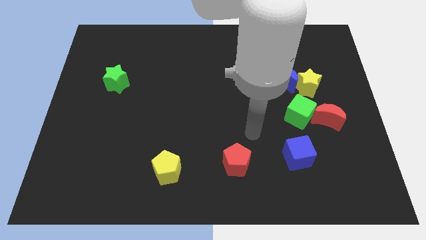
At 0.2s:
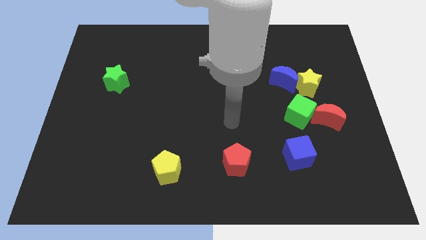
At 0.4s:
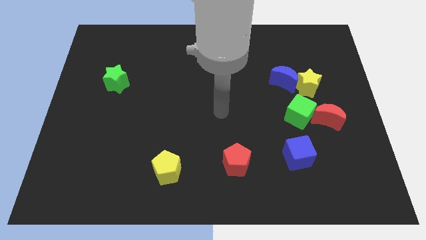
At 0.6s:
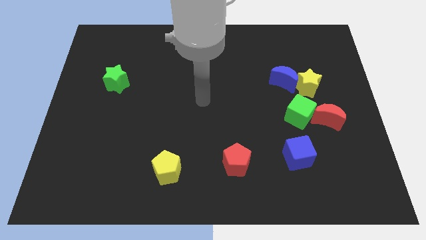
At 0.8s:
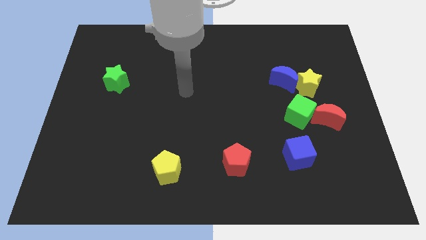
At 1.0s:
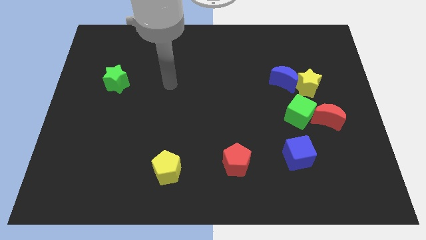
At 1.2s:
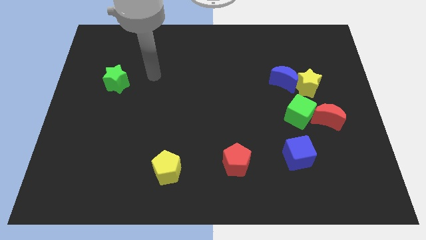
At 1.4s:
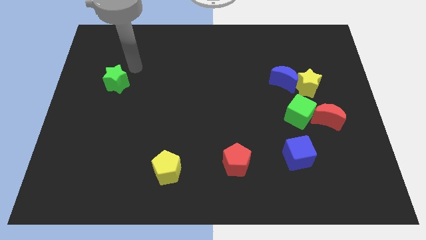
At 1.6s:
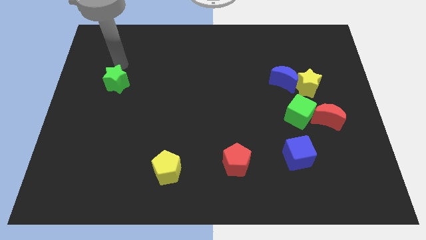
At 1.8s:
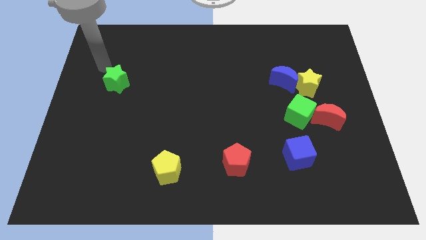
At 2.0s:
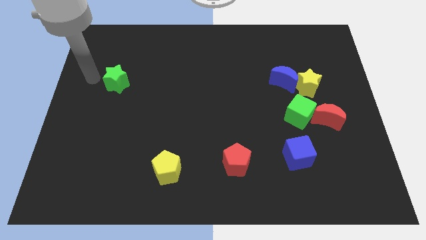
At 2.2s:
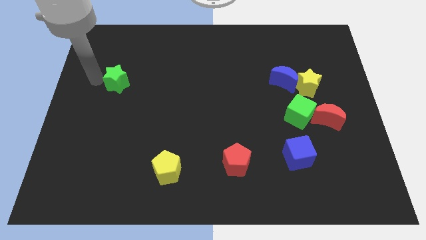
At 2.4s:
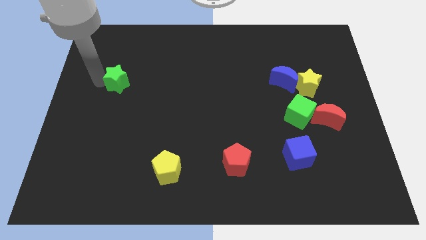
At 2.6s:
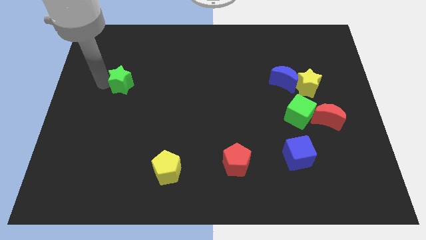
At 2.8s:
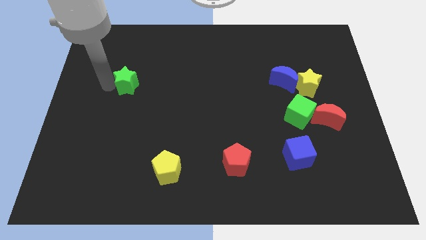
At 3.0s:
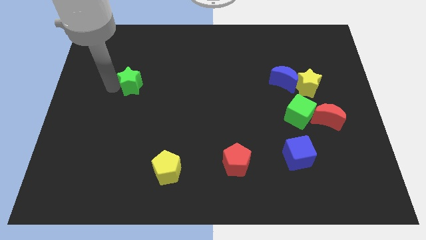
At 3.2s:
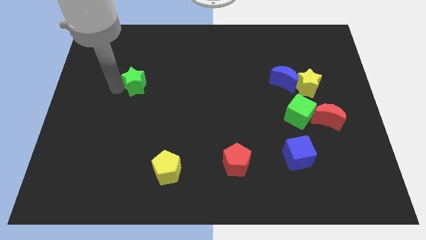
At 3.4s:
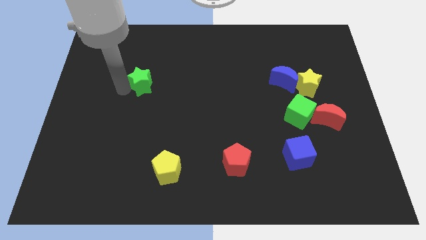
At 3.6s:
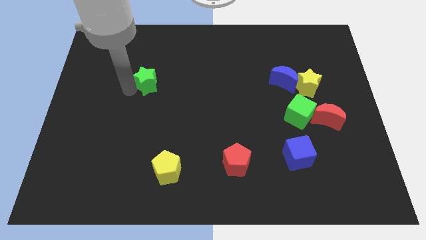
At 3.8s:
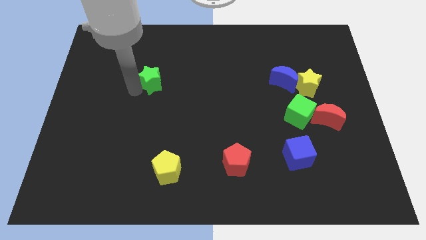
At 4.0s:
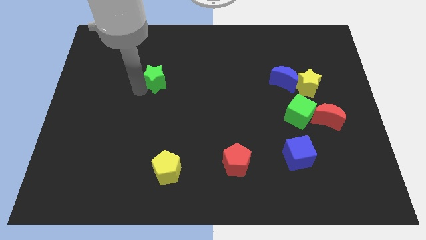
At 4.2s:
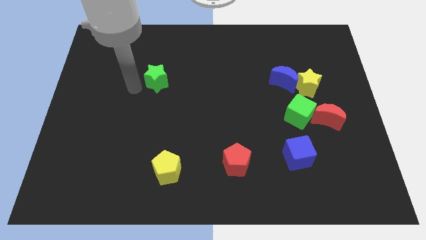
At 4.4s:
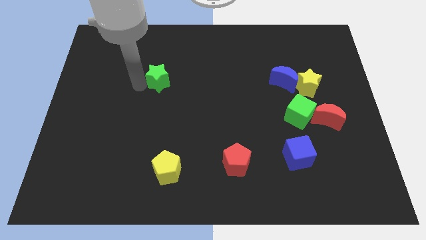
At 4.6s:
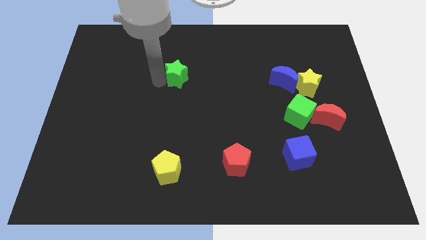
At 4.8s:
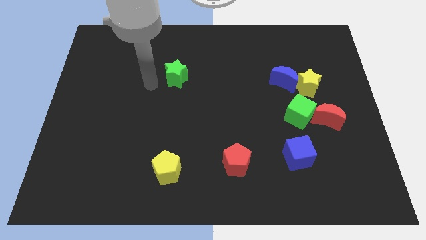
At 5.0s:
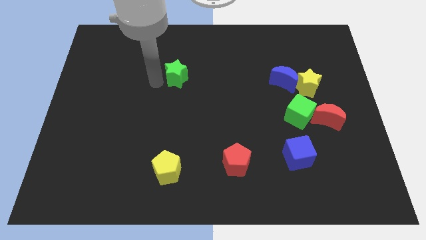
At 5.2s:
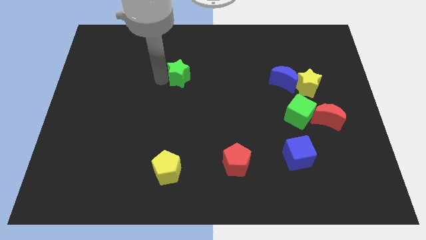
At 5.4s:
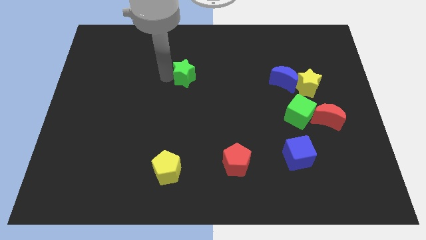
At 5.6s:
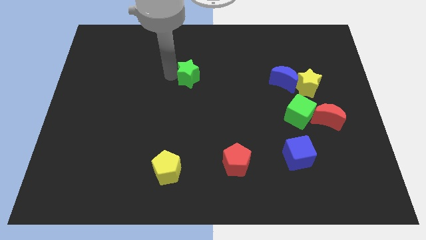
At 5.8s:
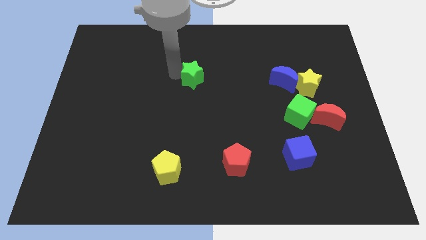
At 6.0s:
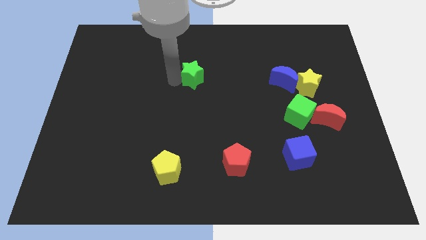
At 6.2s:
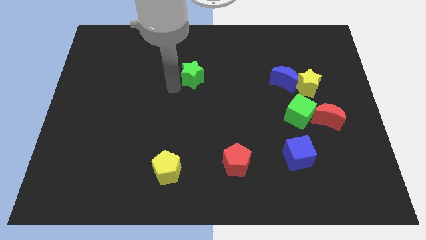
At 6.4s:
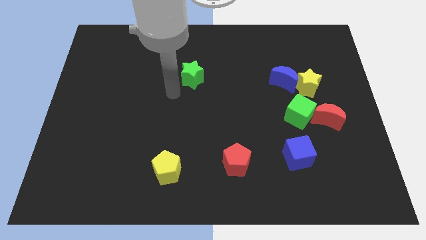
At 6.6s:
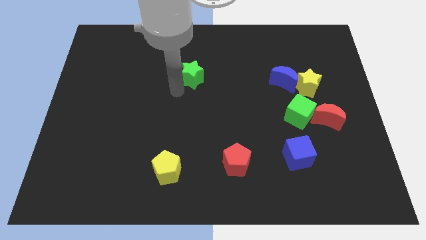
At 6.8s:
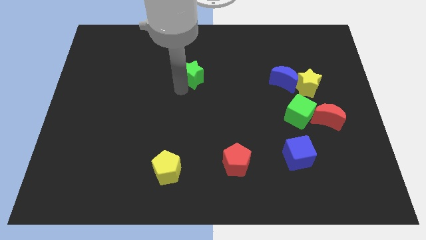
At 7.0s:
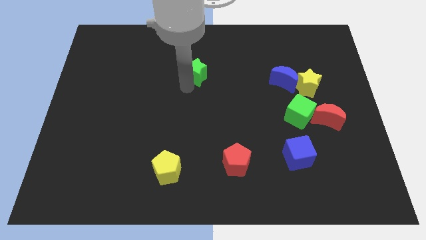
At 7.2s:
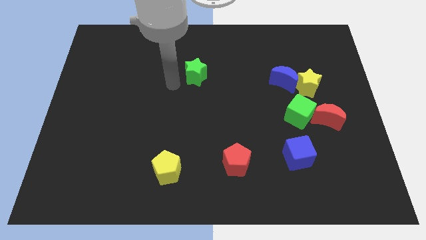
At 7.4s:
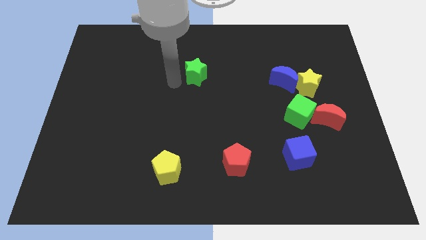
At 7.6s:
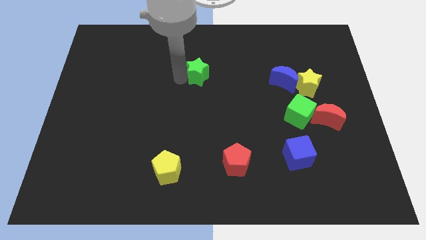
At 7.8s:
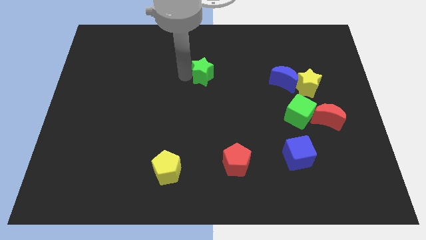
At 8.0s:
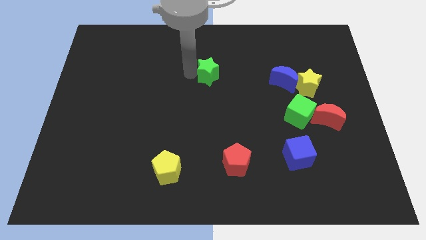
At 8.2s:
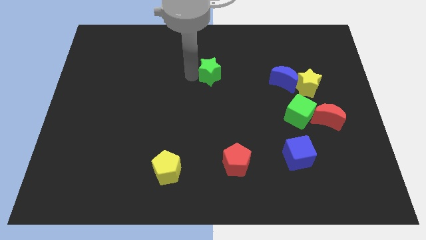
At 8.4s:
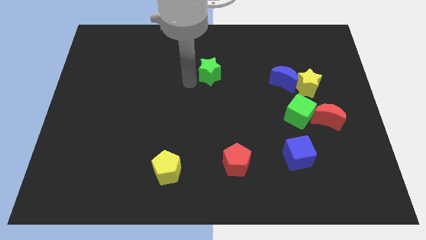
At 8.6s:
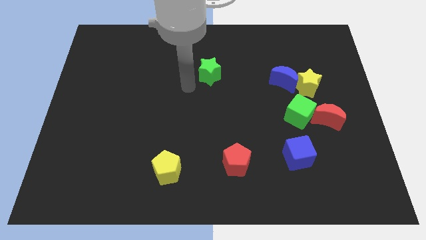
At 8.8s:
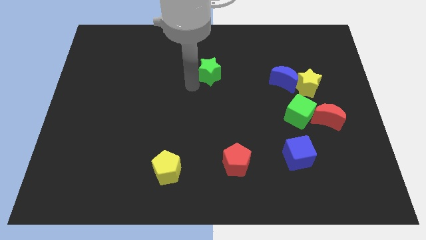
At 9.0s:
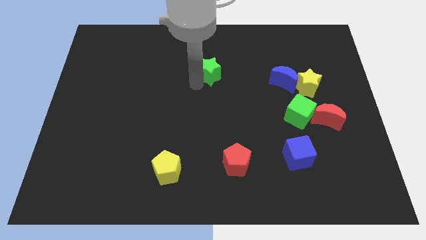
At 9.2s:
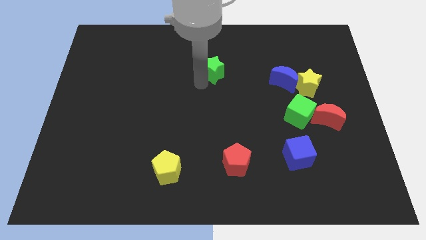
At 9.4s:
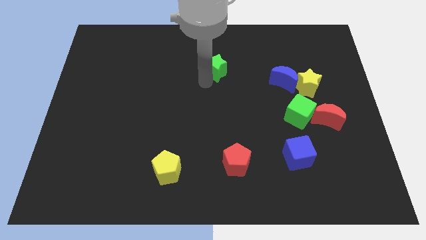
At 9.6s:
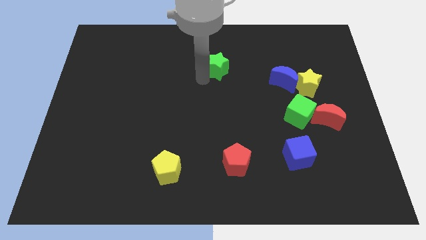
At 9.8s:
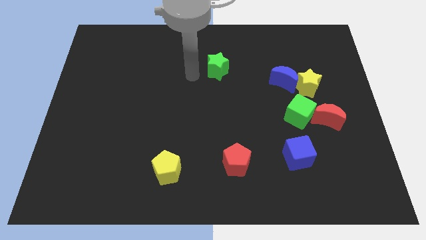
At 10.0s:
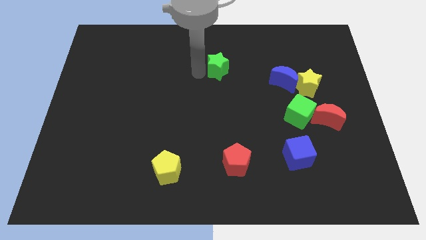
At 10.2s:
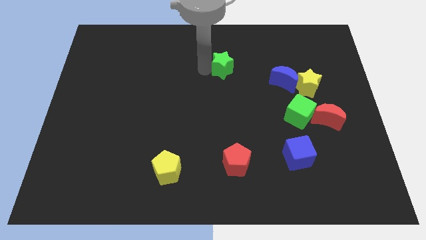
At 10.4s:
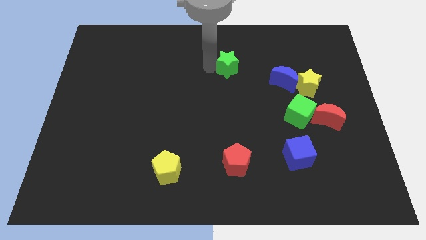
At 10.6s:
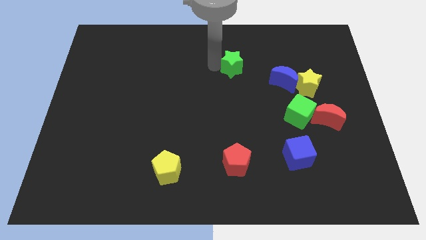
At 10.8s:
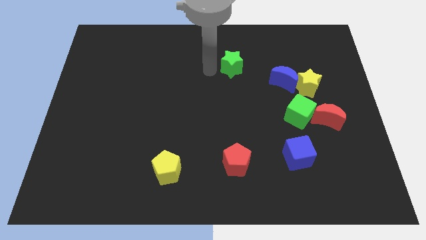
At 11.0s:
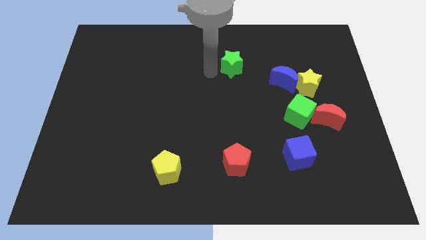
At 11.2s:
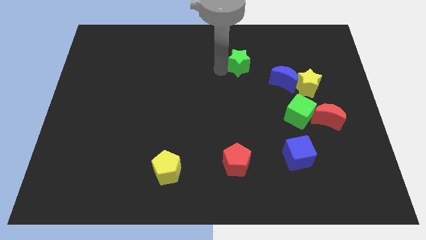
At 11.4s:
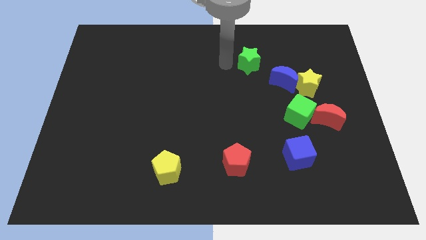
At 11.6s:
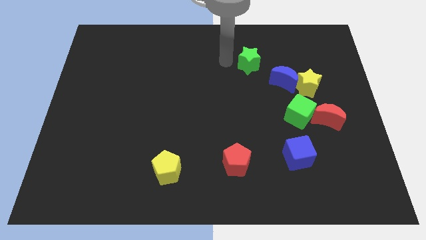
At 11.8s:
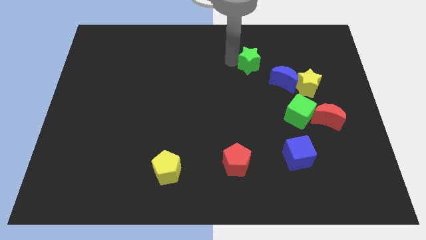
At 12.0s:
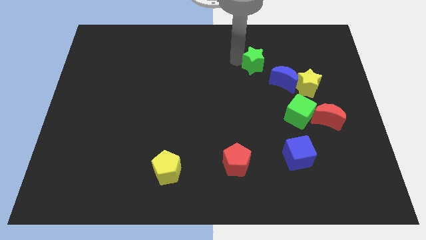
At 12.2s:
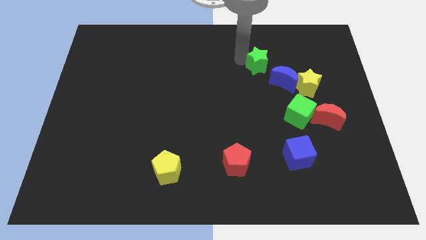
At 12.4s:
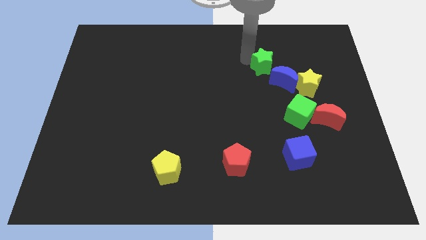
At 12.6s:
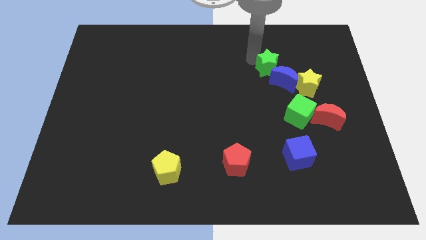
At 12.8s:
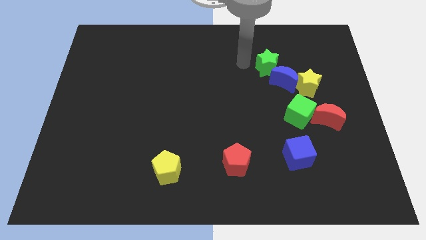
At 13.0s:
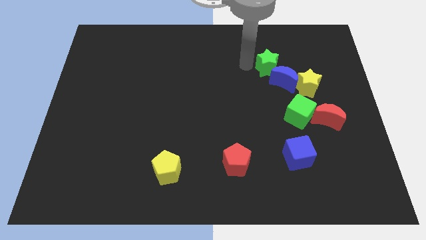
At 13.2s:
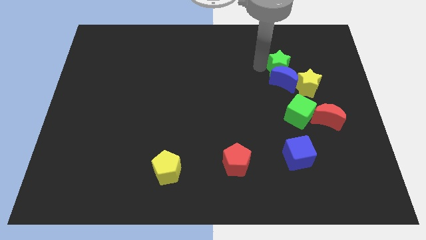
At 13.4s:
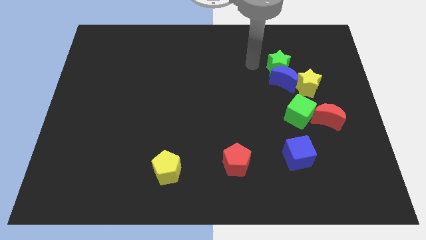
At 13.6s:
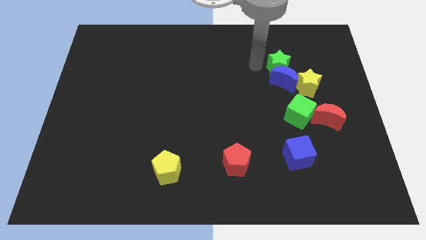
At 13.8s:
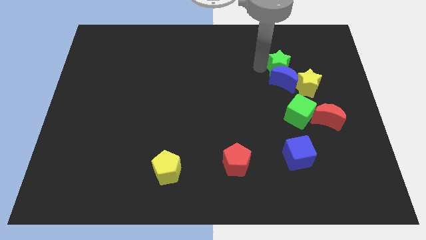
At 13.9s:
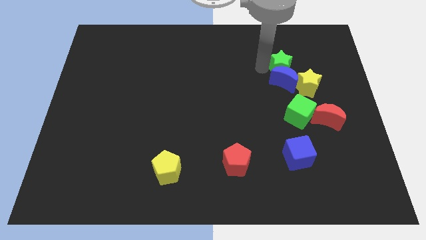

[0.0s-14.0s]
push the green star to the top side of the green cube

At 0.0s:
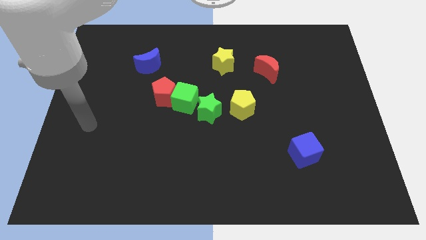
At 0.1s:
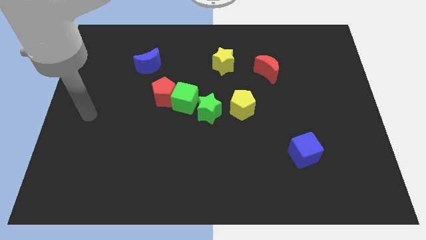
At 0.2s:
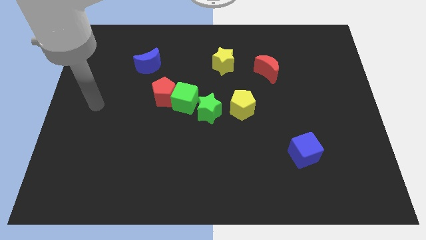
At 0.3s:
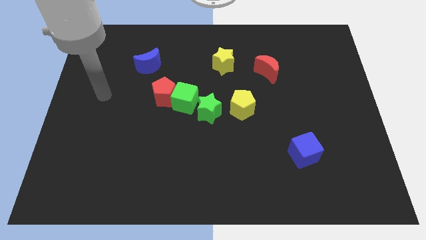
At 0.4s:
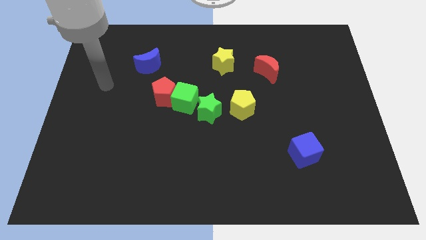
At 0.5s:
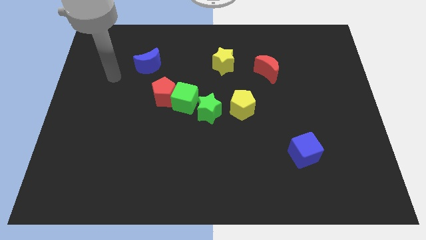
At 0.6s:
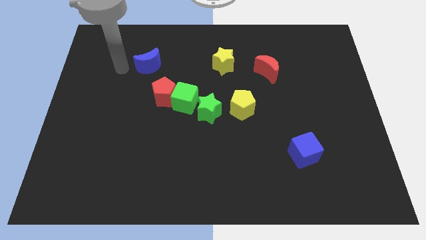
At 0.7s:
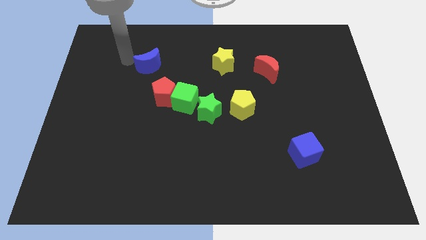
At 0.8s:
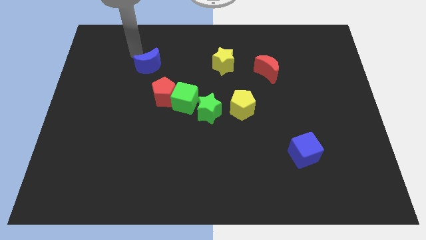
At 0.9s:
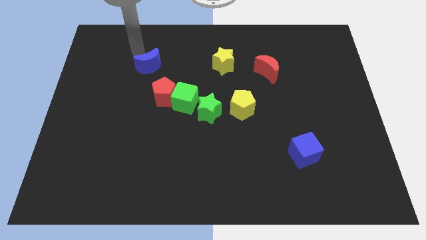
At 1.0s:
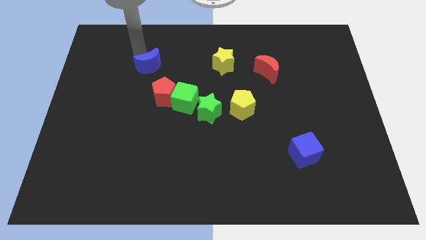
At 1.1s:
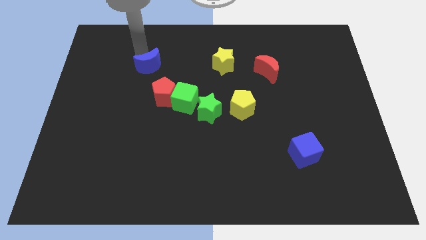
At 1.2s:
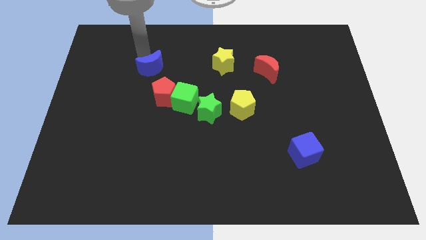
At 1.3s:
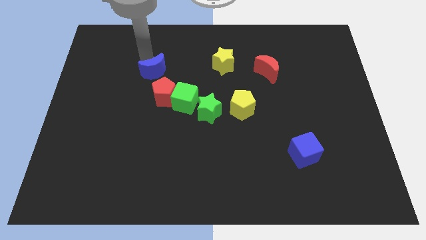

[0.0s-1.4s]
slide the blue moon diagonally up and to the left of the green cube
